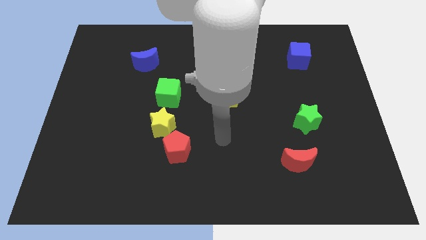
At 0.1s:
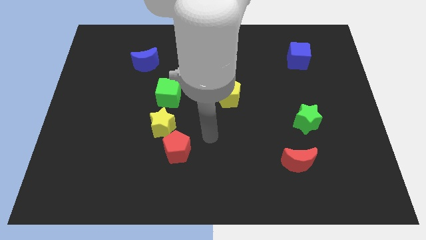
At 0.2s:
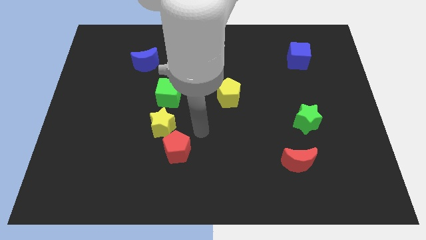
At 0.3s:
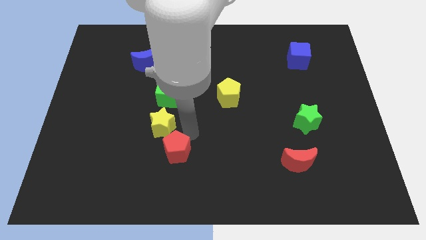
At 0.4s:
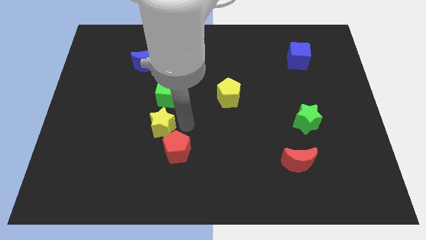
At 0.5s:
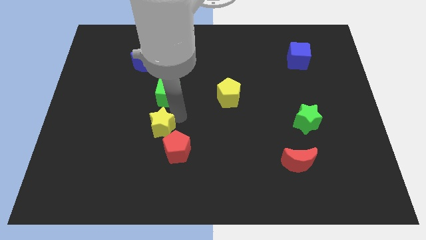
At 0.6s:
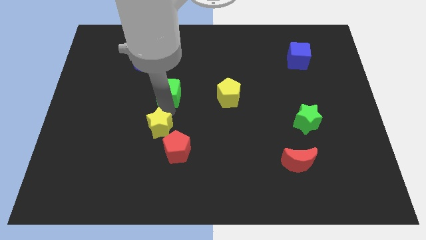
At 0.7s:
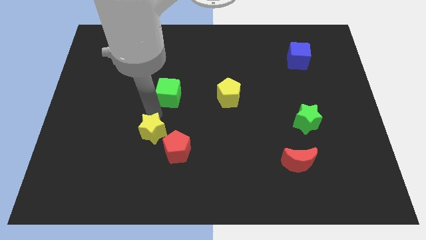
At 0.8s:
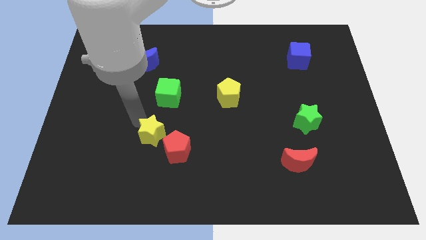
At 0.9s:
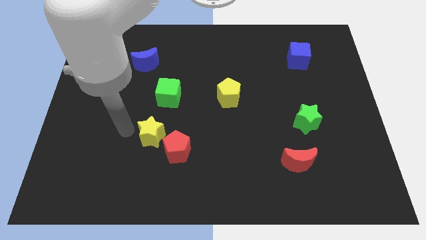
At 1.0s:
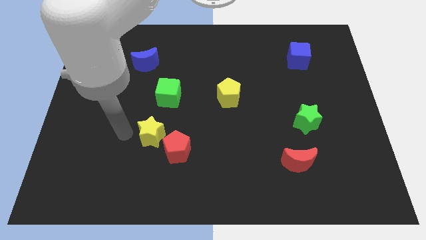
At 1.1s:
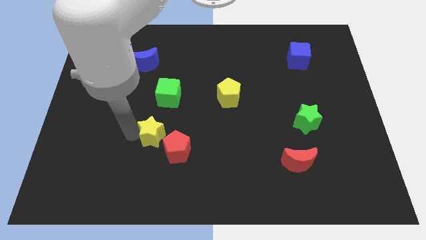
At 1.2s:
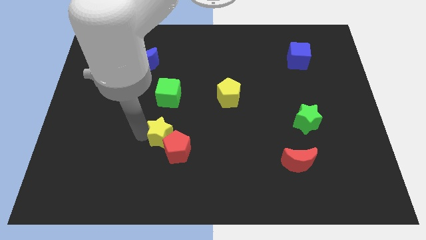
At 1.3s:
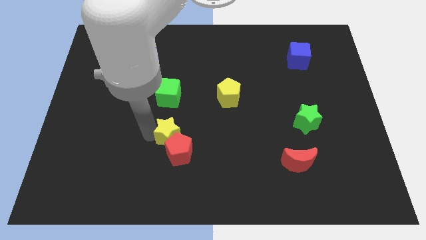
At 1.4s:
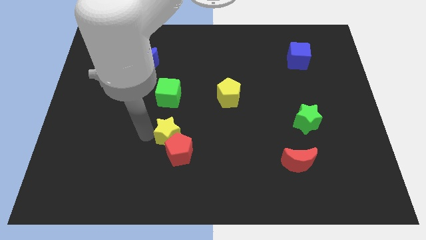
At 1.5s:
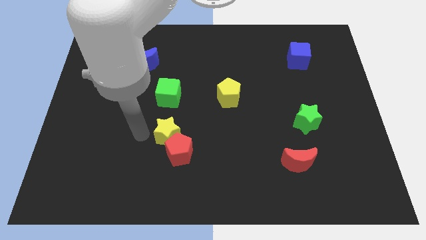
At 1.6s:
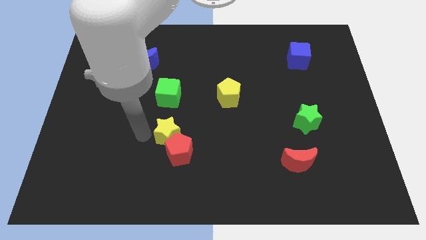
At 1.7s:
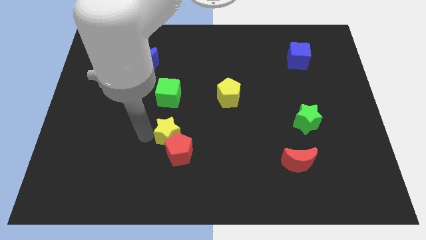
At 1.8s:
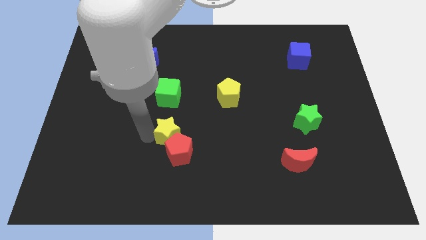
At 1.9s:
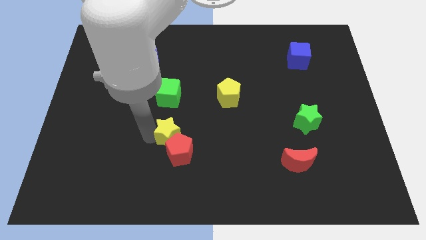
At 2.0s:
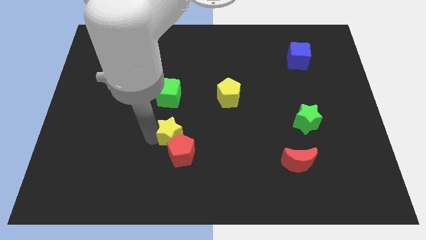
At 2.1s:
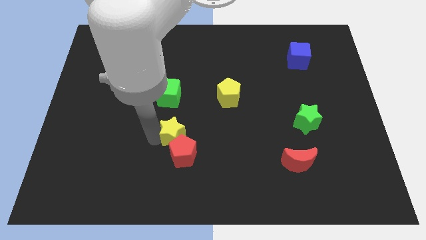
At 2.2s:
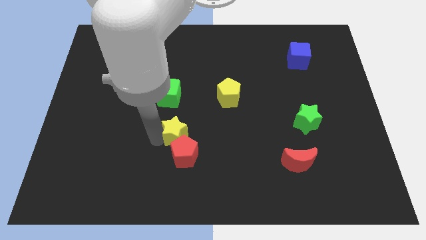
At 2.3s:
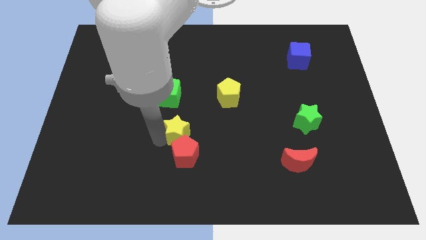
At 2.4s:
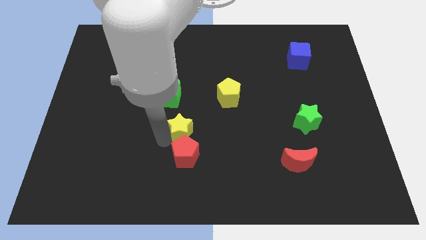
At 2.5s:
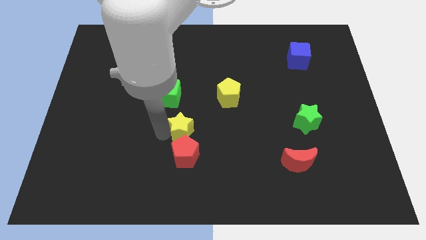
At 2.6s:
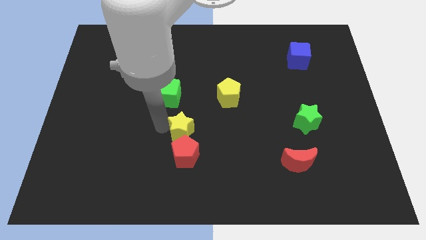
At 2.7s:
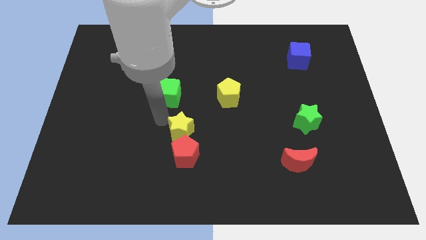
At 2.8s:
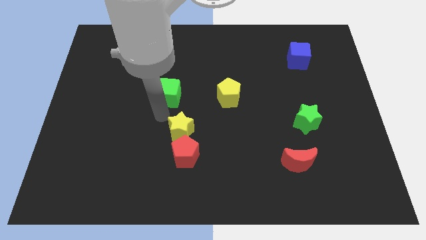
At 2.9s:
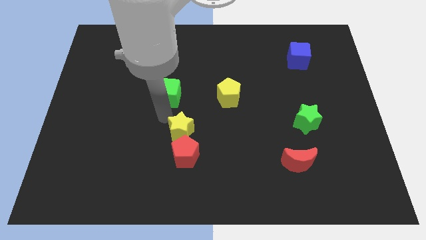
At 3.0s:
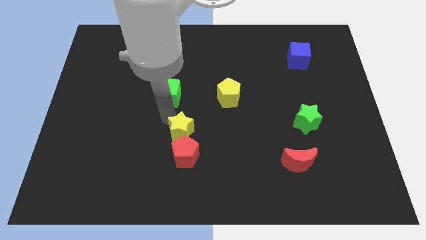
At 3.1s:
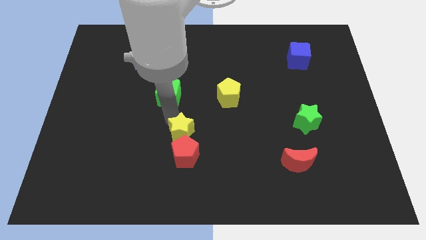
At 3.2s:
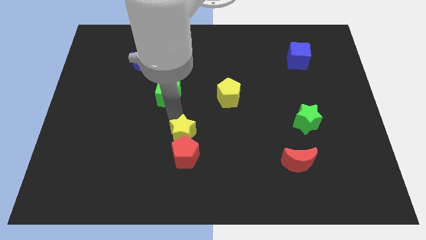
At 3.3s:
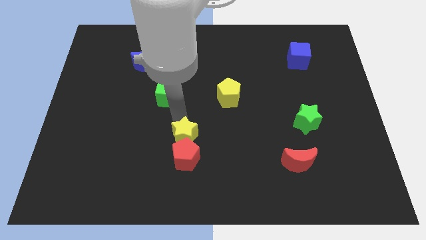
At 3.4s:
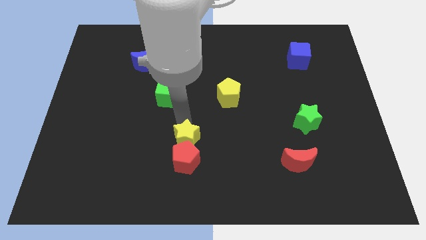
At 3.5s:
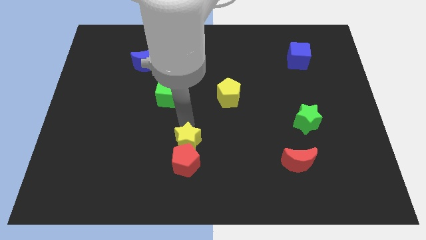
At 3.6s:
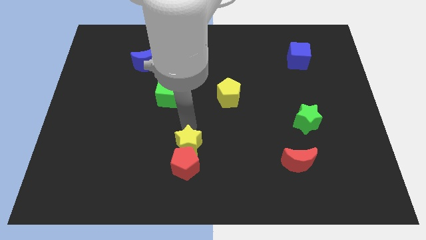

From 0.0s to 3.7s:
slide the yellow star diagonally down and to the right somewhat

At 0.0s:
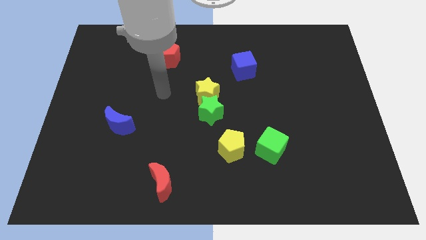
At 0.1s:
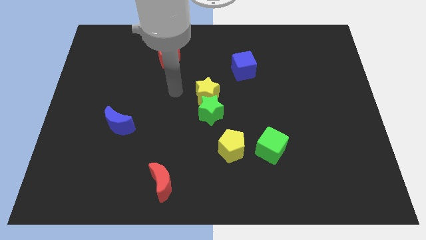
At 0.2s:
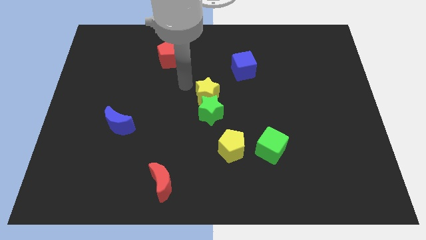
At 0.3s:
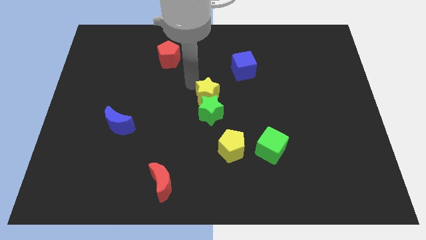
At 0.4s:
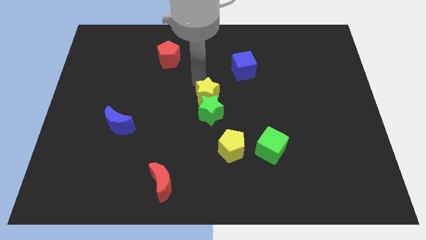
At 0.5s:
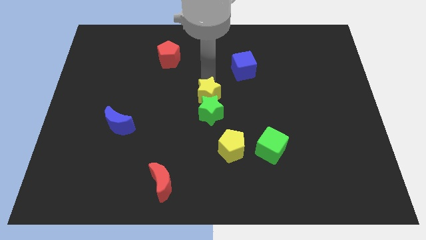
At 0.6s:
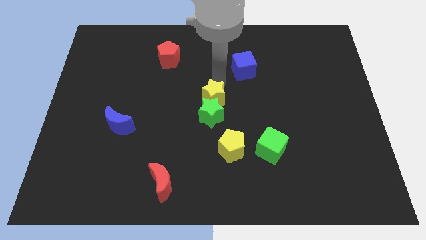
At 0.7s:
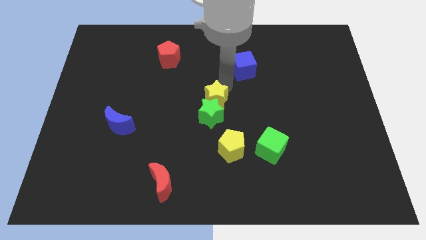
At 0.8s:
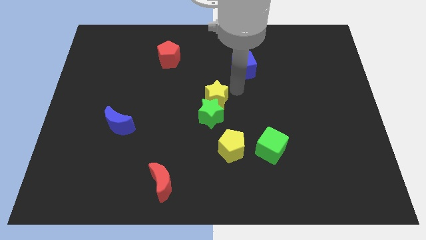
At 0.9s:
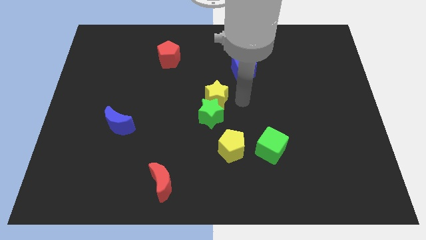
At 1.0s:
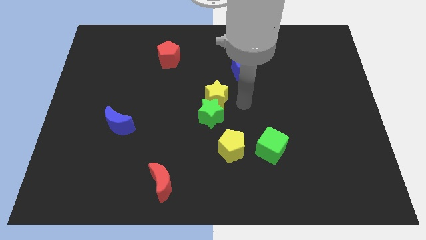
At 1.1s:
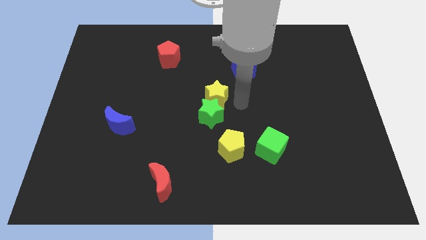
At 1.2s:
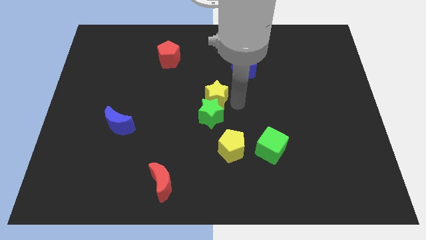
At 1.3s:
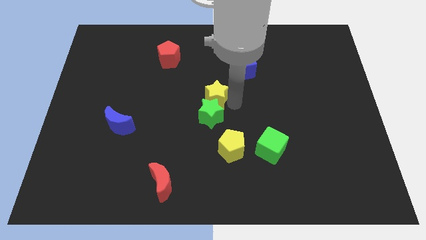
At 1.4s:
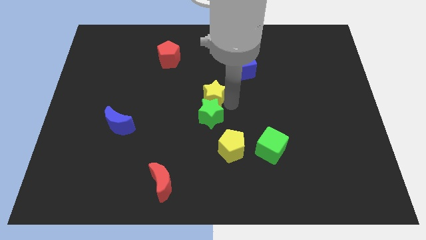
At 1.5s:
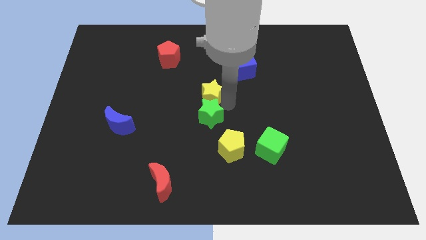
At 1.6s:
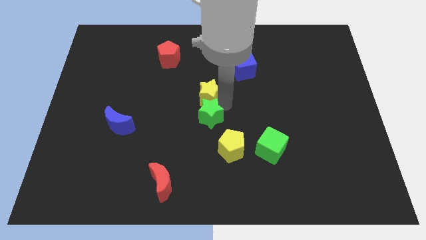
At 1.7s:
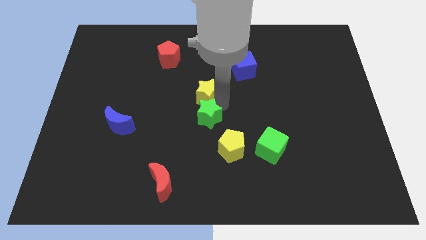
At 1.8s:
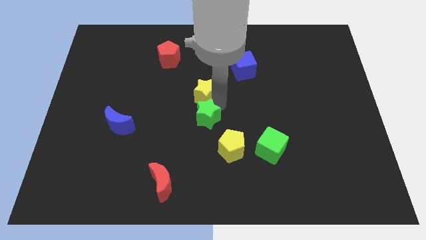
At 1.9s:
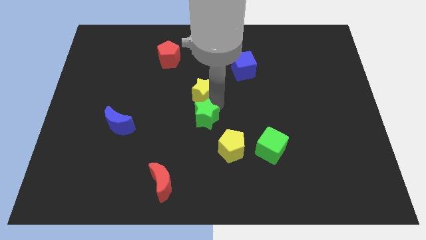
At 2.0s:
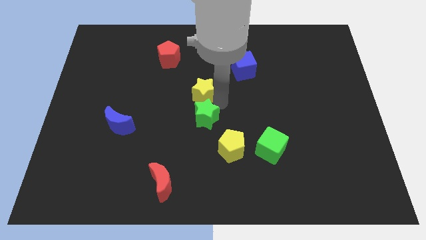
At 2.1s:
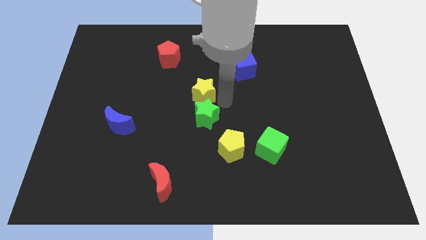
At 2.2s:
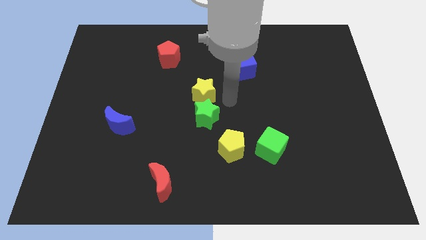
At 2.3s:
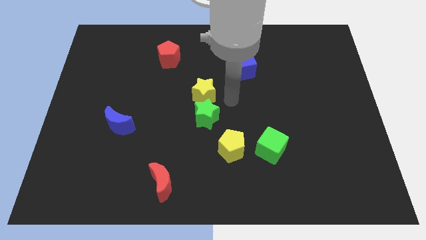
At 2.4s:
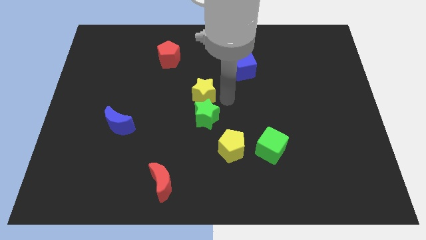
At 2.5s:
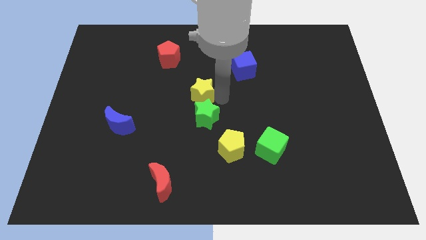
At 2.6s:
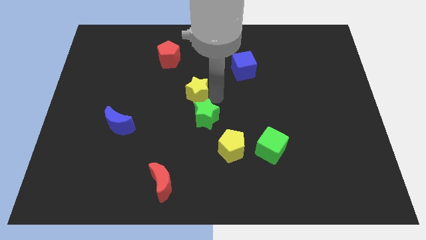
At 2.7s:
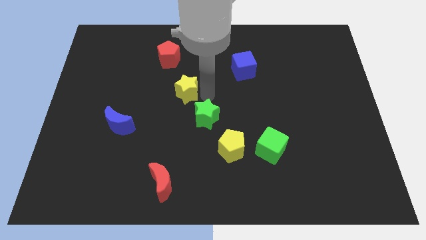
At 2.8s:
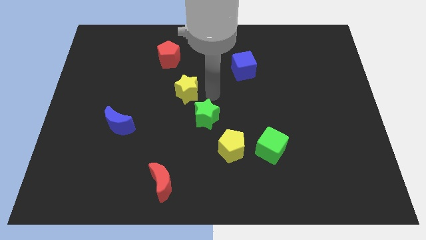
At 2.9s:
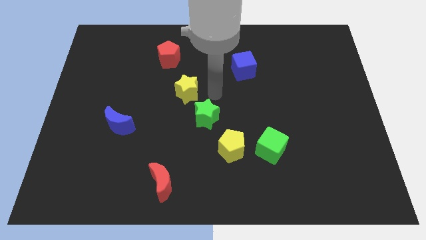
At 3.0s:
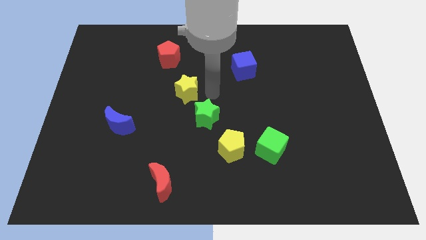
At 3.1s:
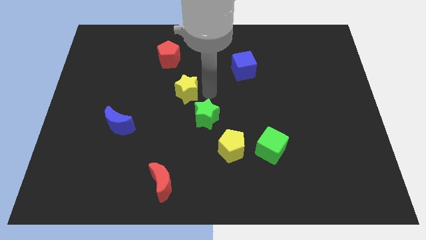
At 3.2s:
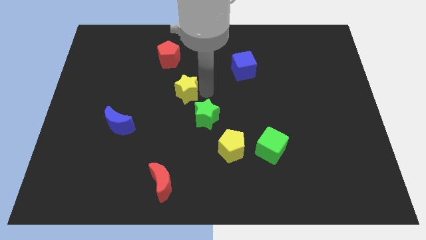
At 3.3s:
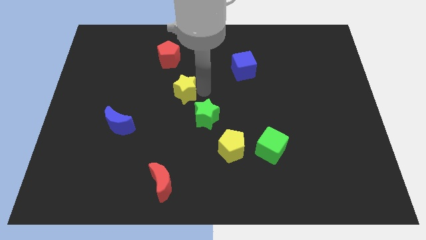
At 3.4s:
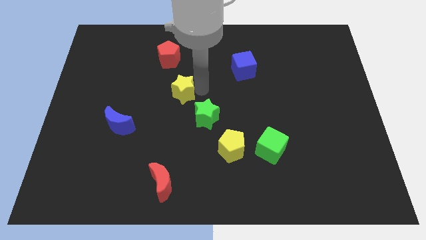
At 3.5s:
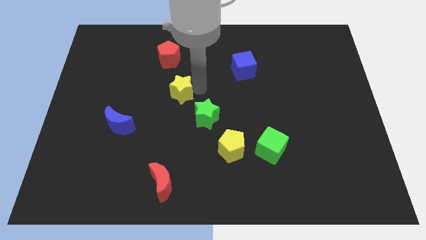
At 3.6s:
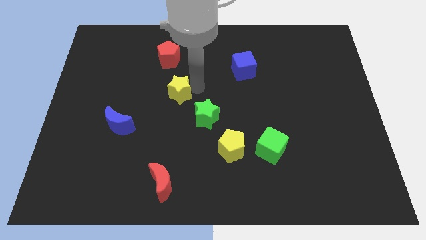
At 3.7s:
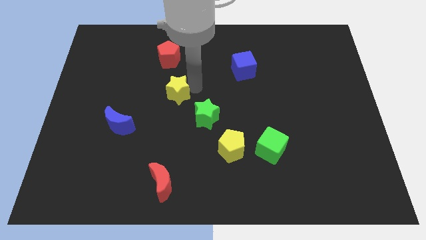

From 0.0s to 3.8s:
slide the yellow star slightly left

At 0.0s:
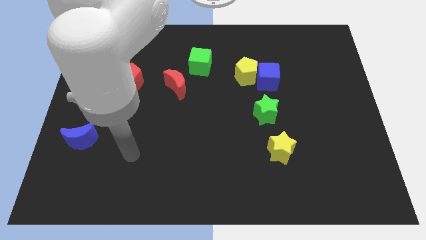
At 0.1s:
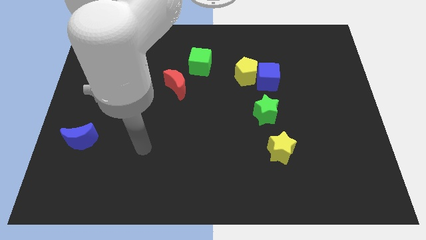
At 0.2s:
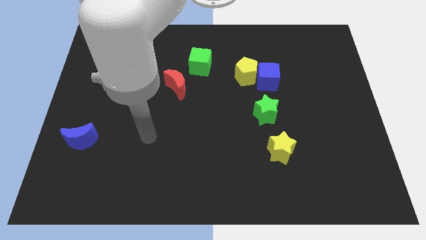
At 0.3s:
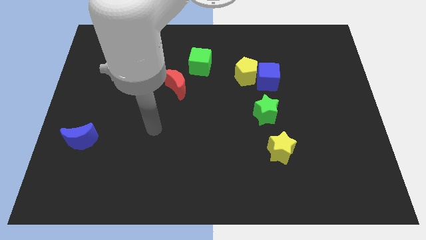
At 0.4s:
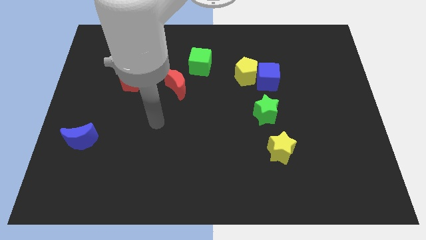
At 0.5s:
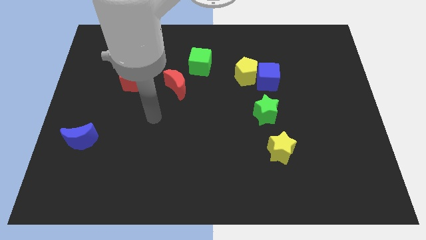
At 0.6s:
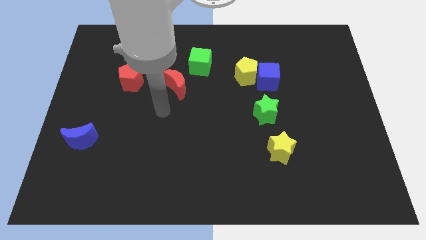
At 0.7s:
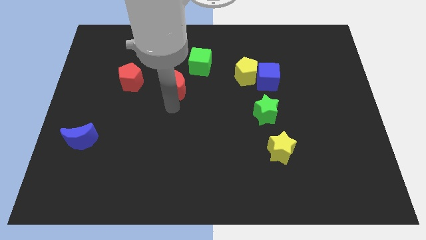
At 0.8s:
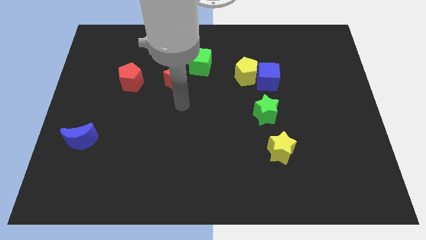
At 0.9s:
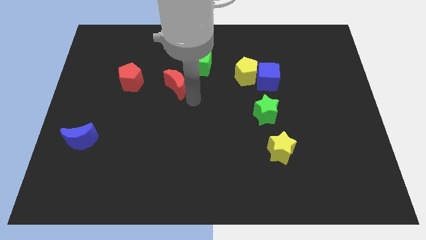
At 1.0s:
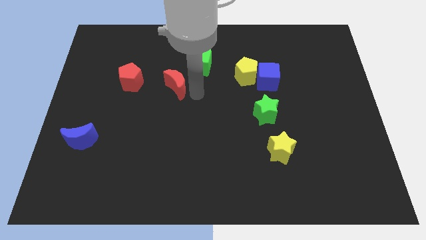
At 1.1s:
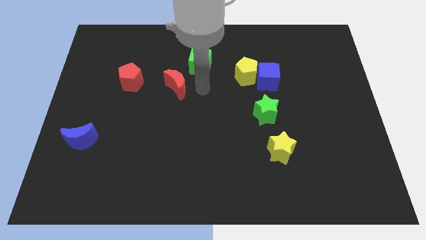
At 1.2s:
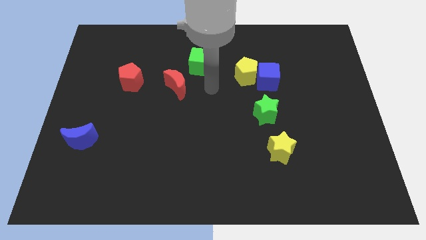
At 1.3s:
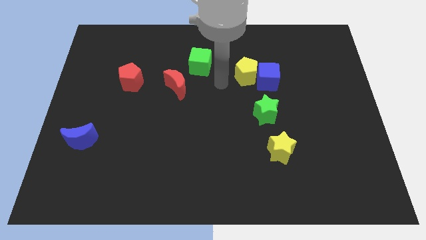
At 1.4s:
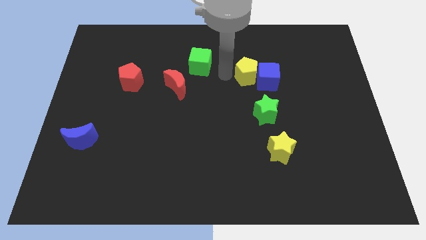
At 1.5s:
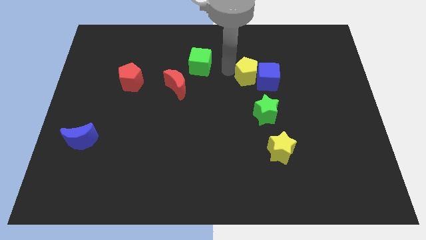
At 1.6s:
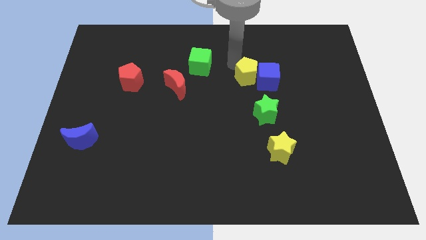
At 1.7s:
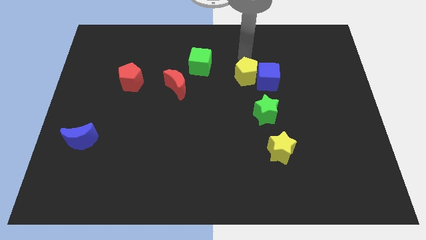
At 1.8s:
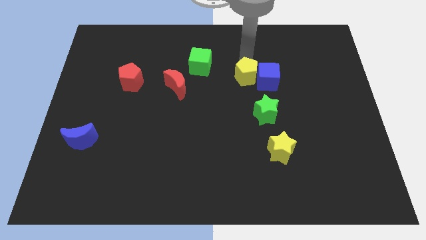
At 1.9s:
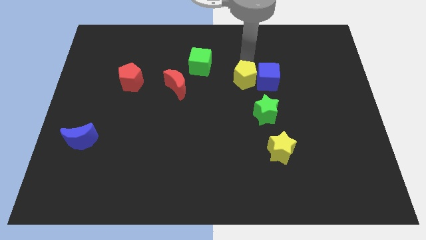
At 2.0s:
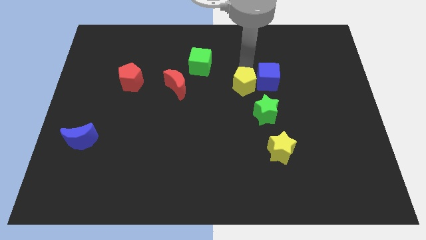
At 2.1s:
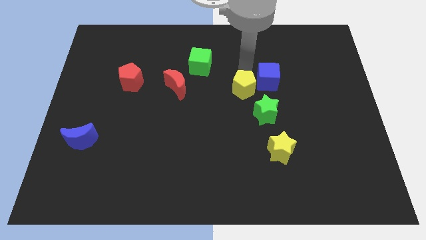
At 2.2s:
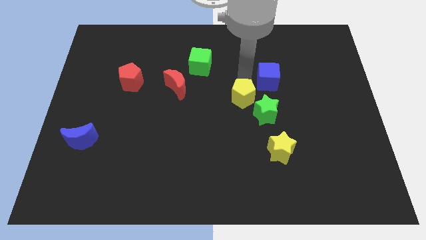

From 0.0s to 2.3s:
slide the yellow pentagon downwards a little bit
